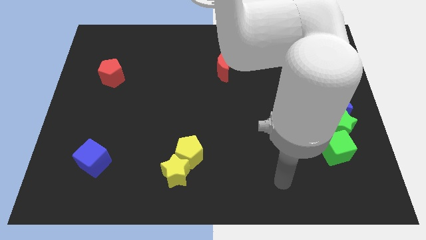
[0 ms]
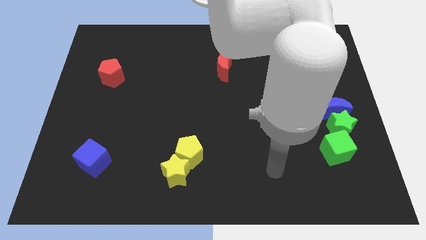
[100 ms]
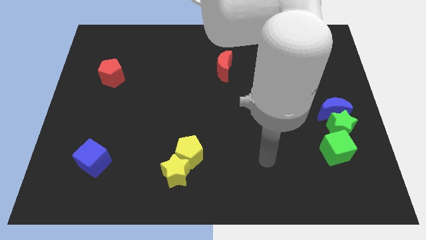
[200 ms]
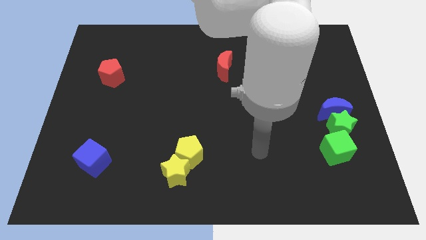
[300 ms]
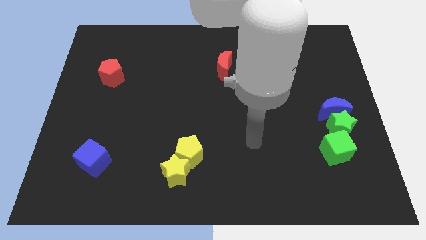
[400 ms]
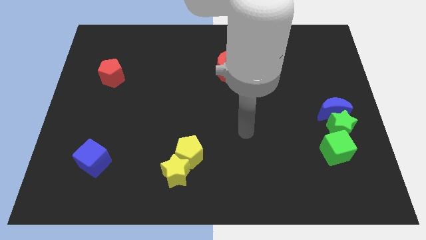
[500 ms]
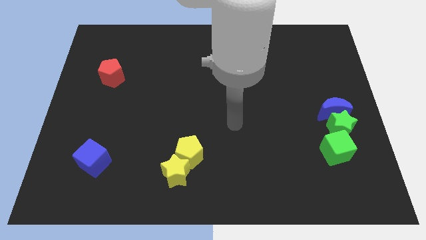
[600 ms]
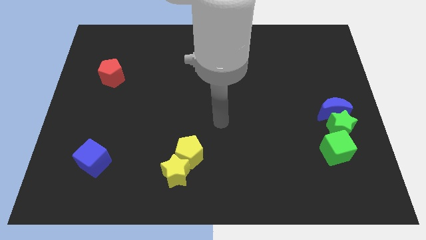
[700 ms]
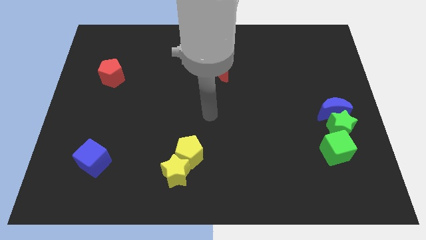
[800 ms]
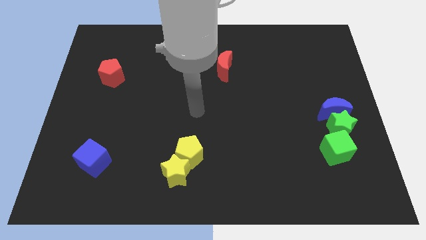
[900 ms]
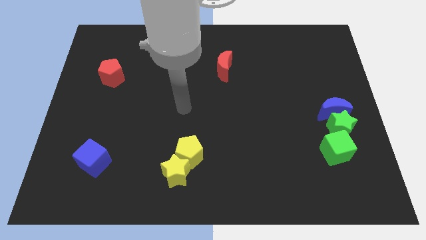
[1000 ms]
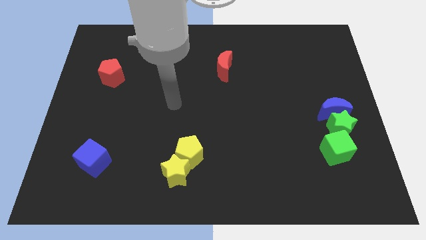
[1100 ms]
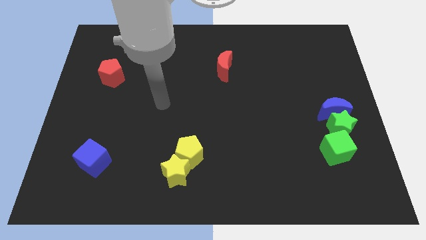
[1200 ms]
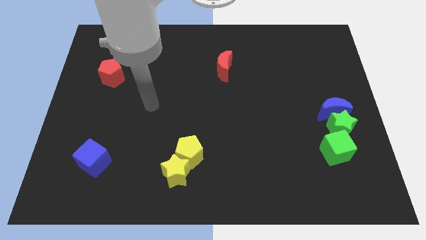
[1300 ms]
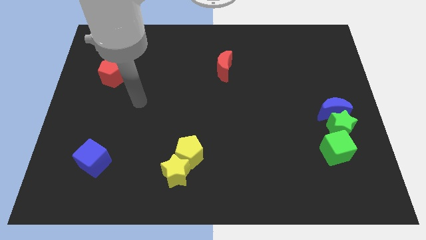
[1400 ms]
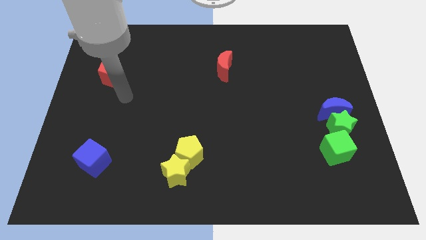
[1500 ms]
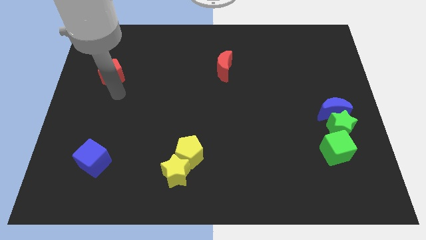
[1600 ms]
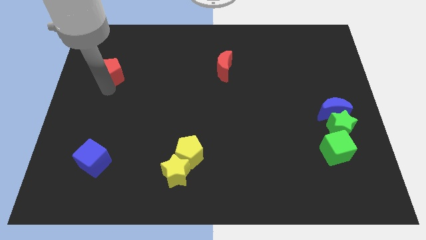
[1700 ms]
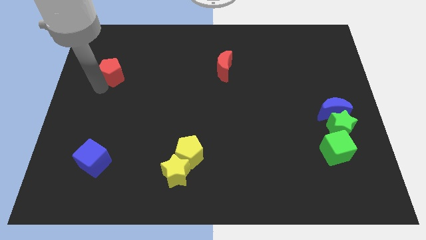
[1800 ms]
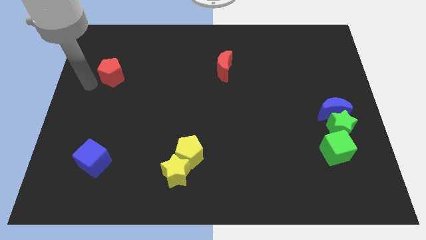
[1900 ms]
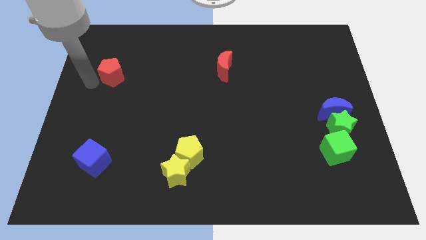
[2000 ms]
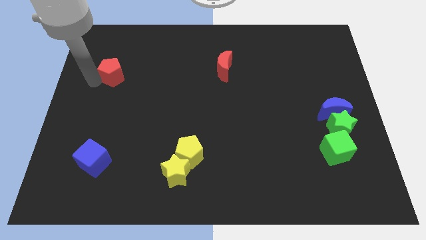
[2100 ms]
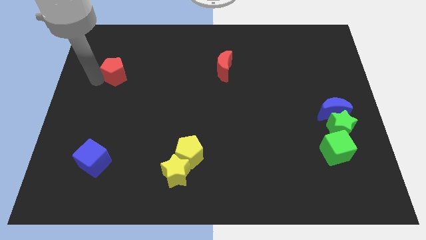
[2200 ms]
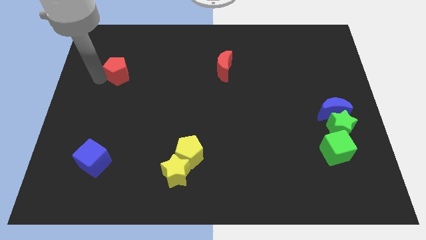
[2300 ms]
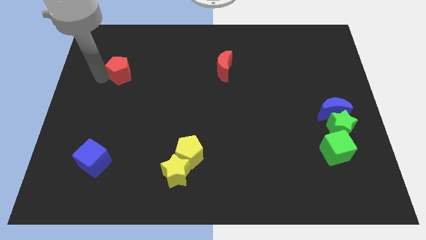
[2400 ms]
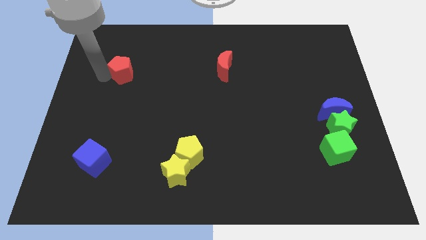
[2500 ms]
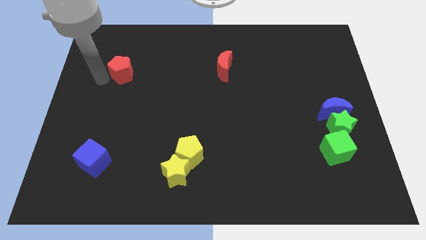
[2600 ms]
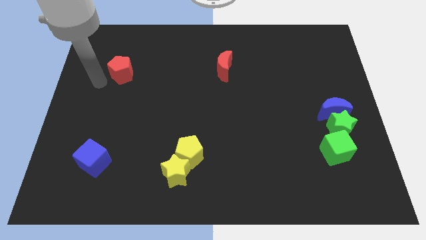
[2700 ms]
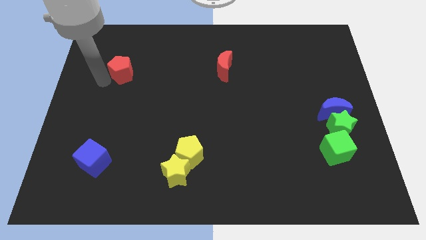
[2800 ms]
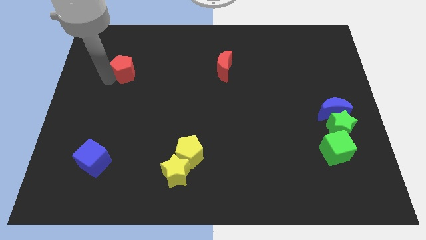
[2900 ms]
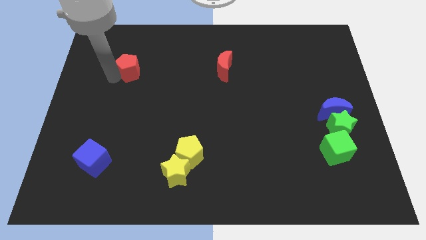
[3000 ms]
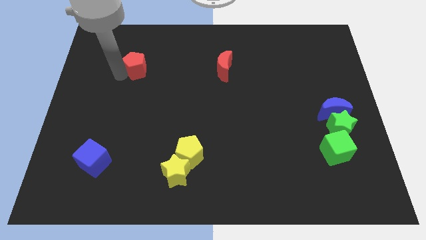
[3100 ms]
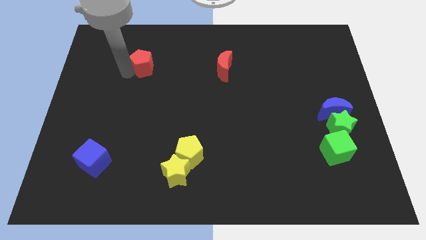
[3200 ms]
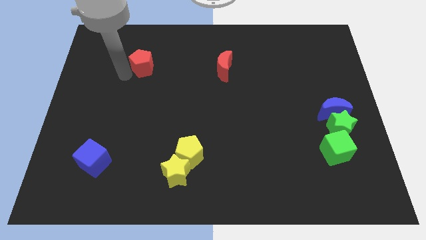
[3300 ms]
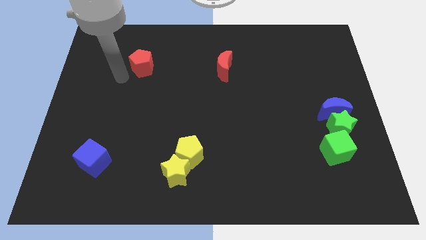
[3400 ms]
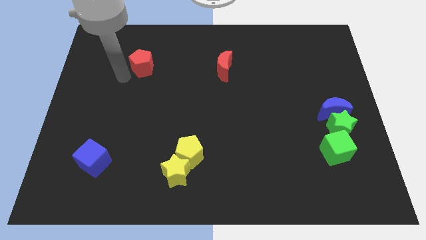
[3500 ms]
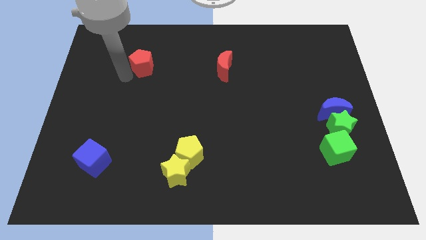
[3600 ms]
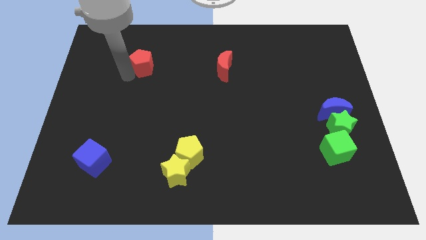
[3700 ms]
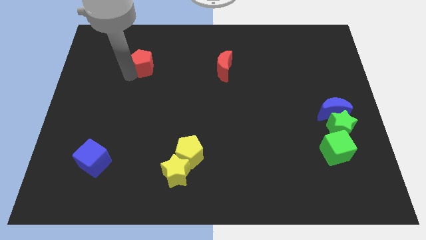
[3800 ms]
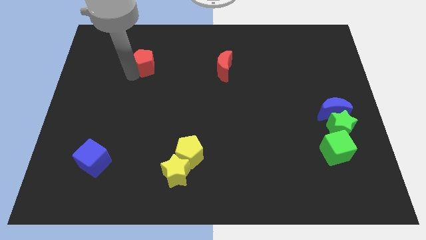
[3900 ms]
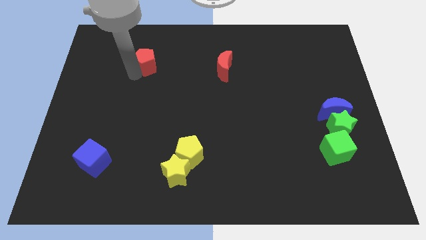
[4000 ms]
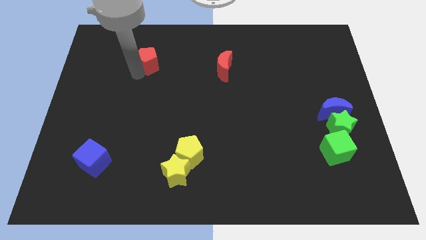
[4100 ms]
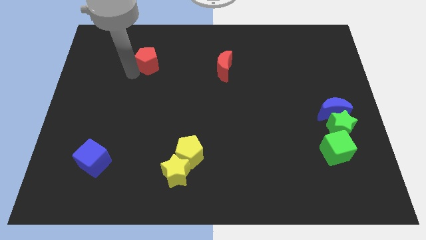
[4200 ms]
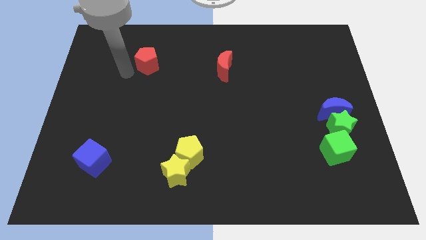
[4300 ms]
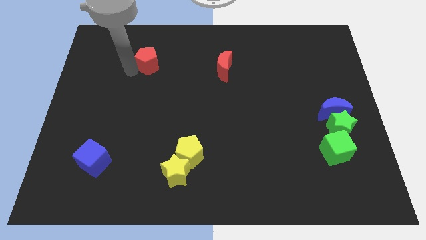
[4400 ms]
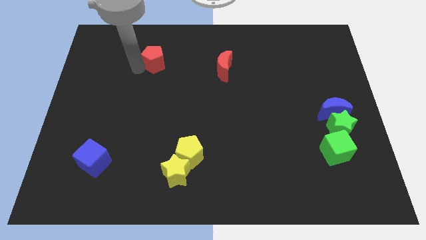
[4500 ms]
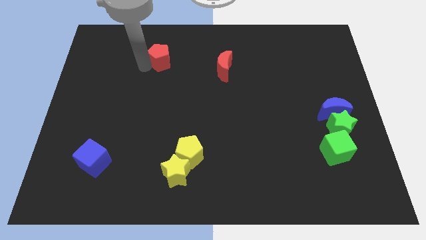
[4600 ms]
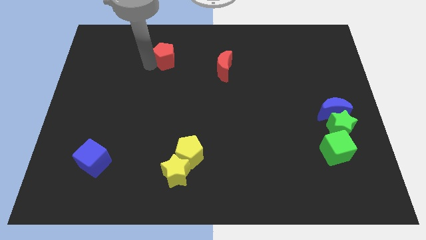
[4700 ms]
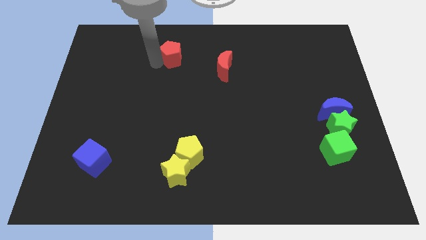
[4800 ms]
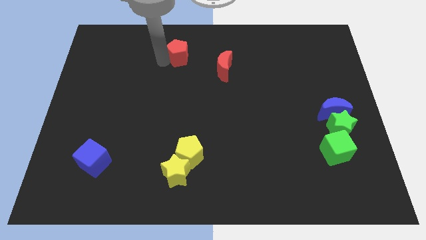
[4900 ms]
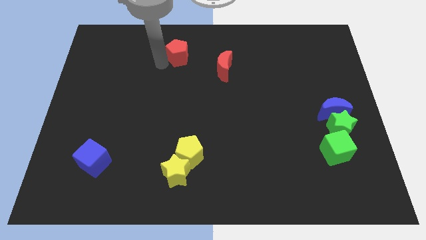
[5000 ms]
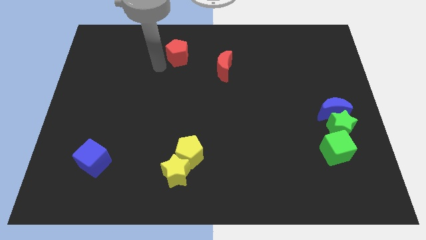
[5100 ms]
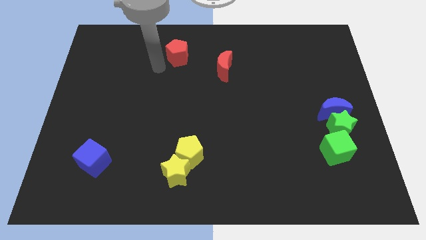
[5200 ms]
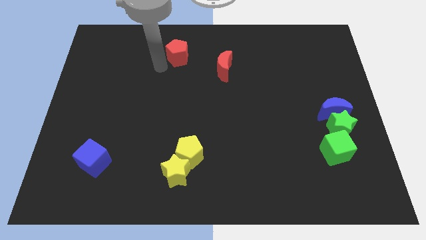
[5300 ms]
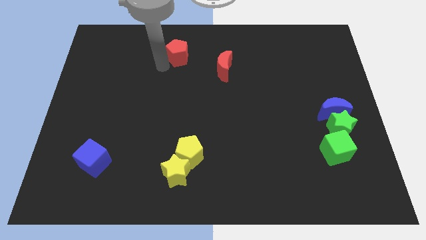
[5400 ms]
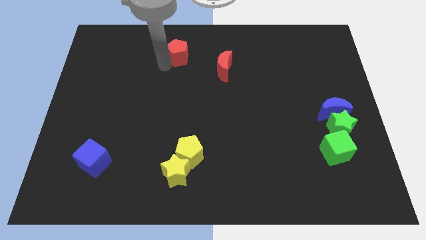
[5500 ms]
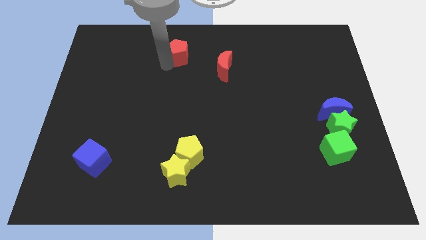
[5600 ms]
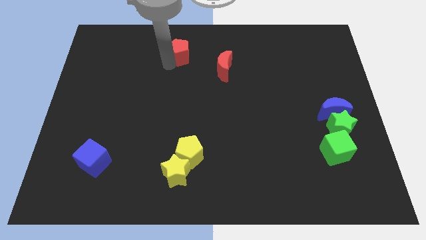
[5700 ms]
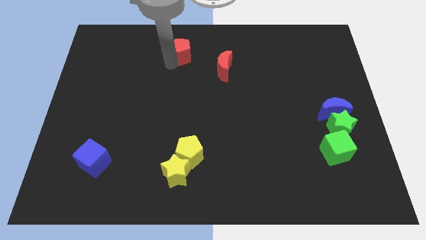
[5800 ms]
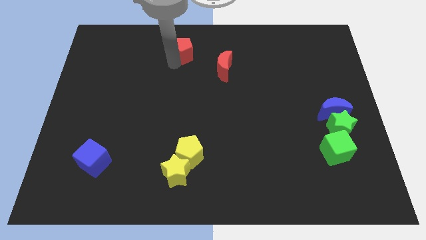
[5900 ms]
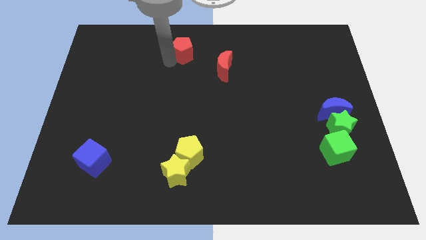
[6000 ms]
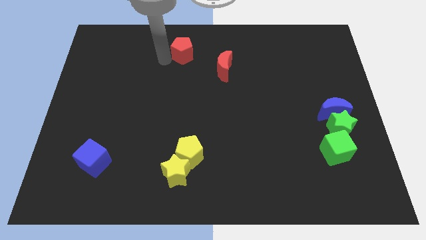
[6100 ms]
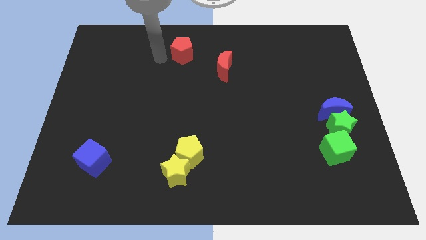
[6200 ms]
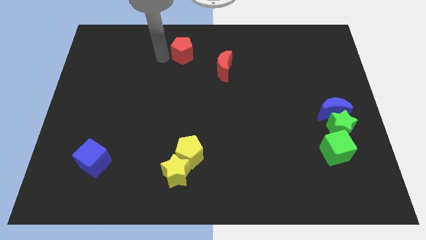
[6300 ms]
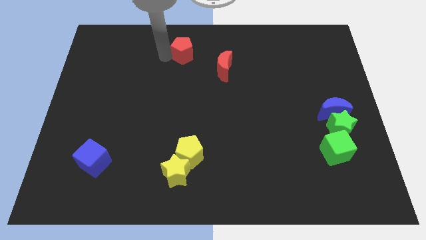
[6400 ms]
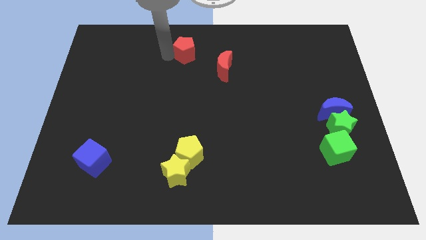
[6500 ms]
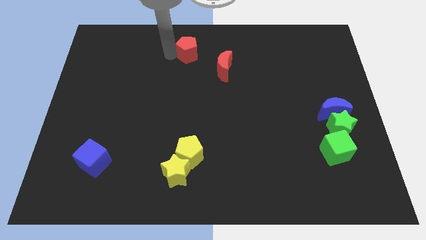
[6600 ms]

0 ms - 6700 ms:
push the red pentagon to the top side
